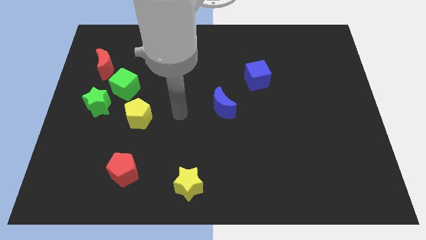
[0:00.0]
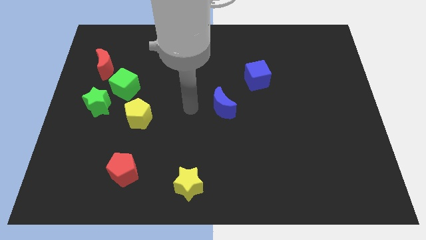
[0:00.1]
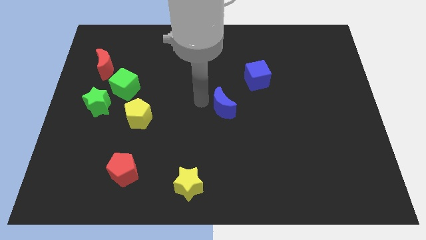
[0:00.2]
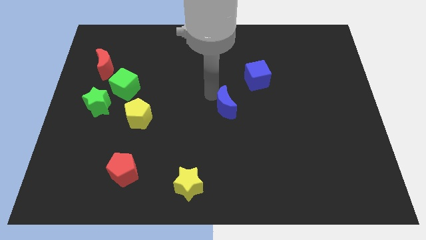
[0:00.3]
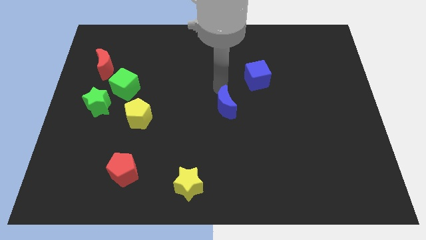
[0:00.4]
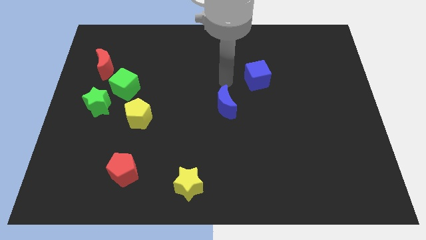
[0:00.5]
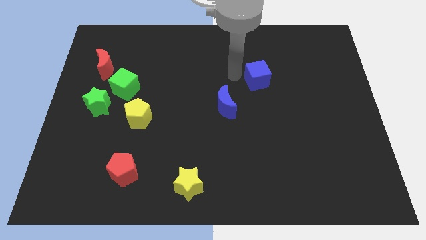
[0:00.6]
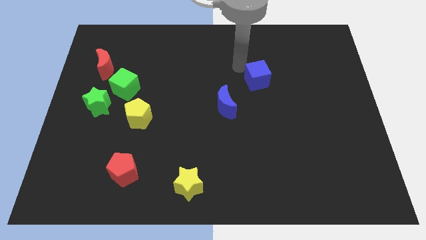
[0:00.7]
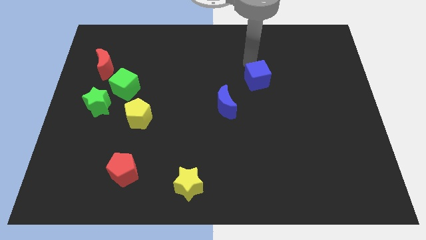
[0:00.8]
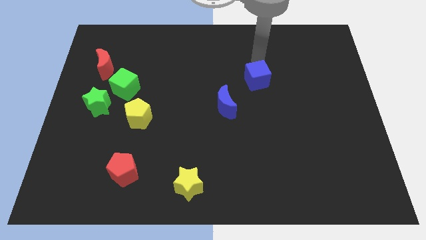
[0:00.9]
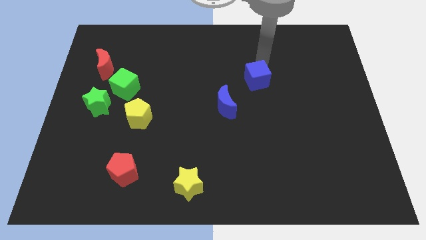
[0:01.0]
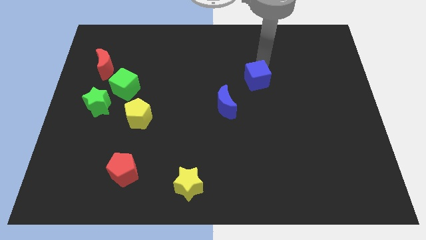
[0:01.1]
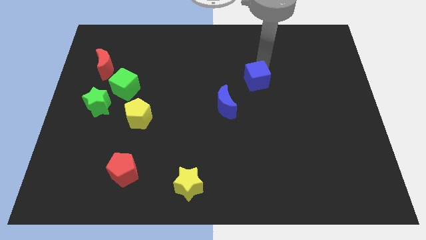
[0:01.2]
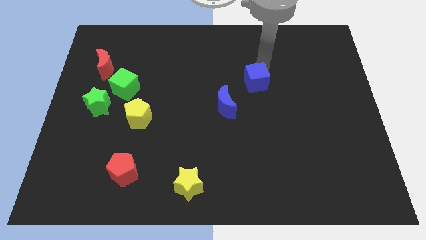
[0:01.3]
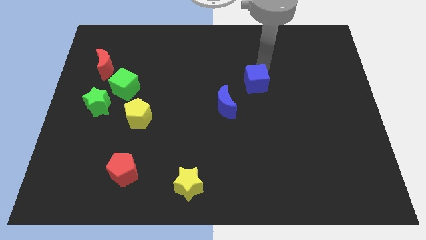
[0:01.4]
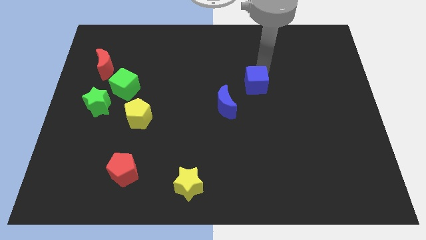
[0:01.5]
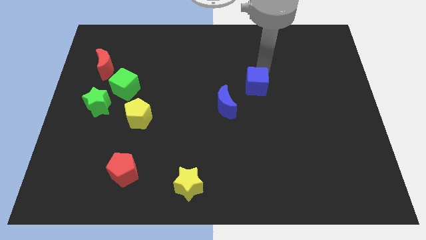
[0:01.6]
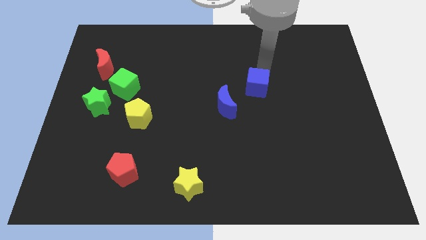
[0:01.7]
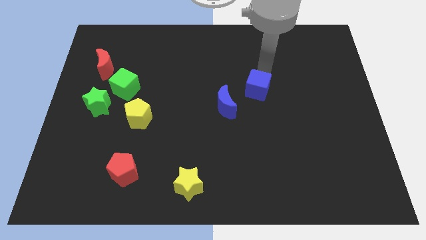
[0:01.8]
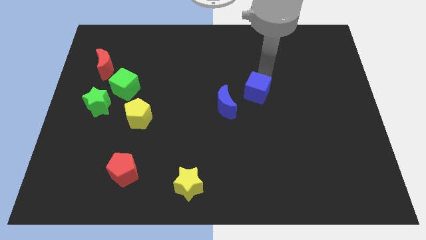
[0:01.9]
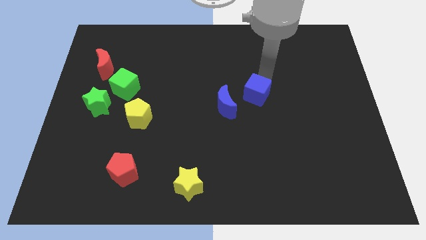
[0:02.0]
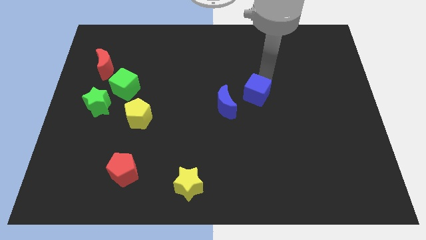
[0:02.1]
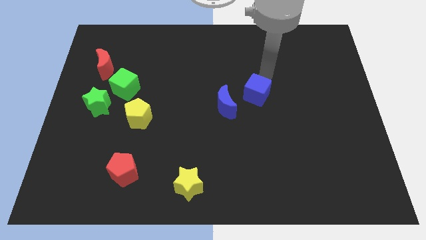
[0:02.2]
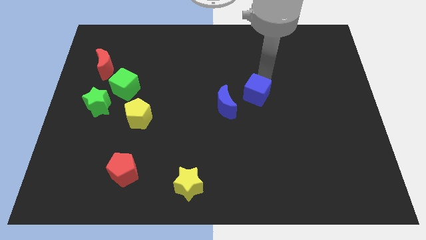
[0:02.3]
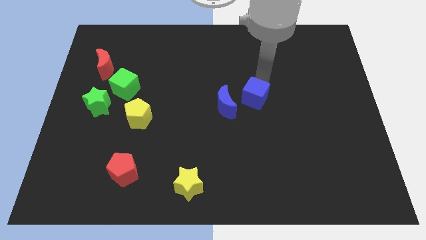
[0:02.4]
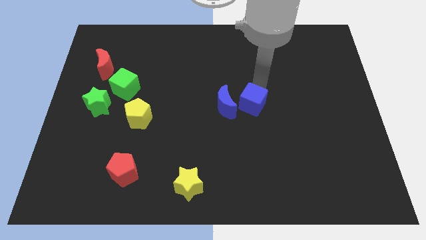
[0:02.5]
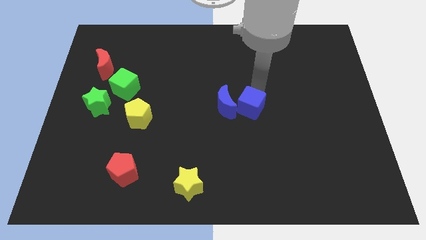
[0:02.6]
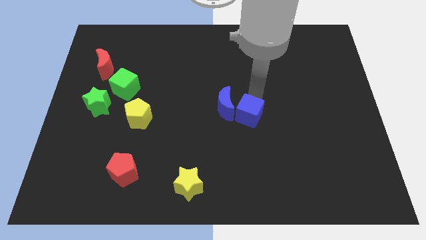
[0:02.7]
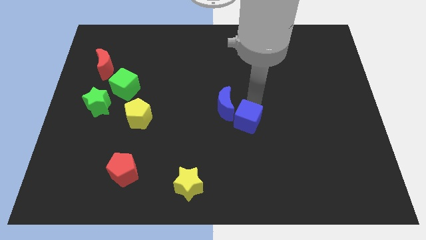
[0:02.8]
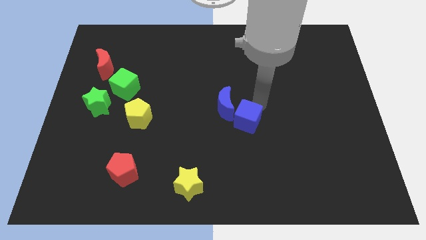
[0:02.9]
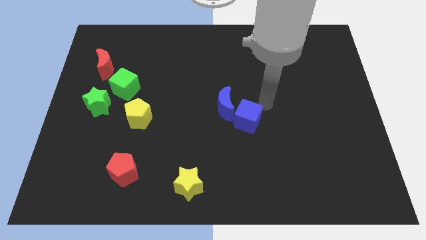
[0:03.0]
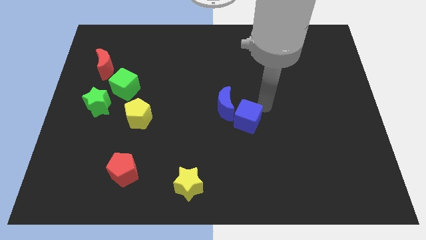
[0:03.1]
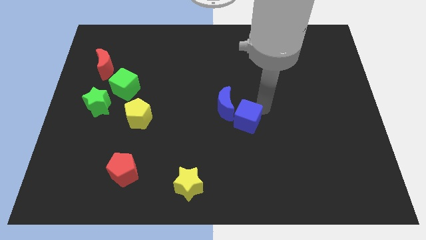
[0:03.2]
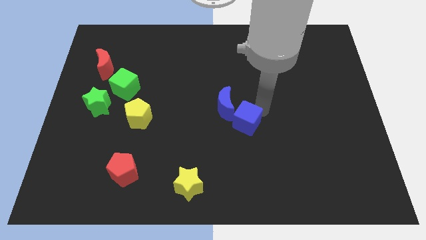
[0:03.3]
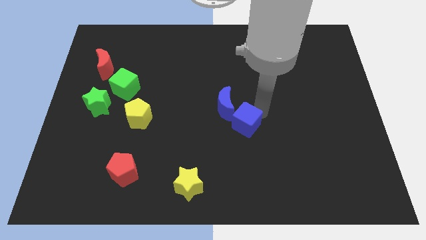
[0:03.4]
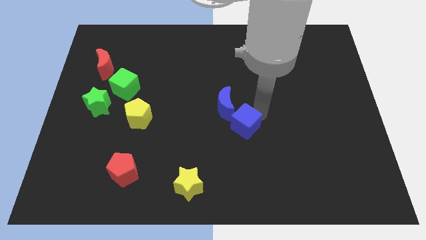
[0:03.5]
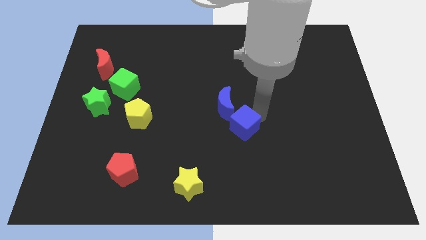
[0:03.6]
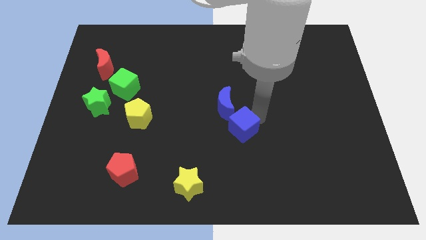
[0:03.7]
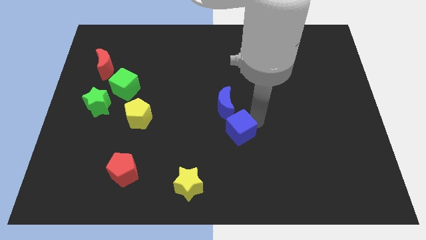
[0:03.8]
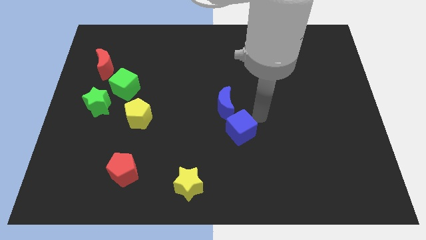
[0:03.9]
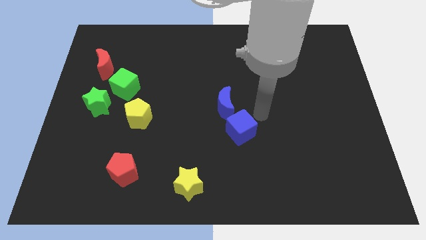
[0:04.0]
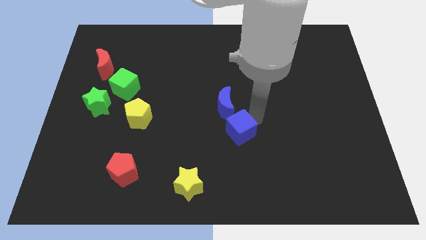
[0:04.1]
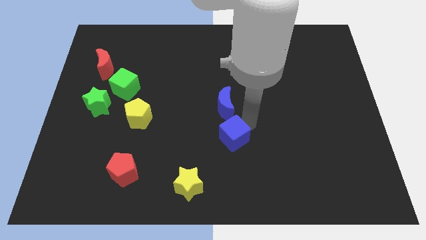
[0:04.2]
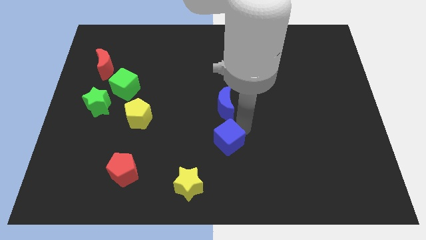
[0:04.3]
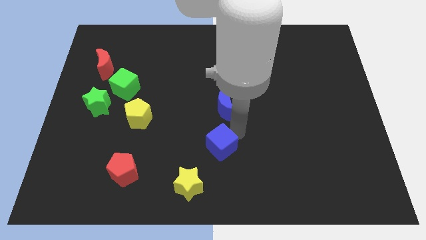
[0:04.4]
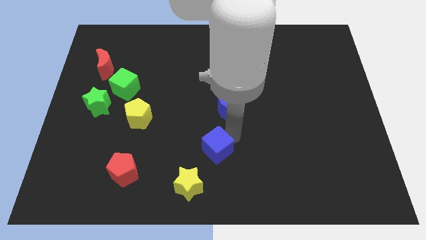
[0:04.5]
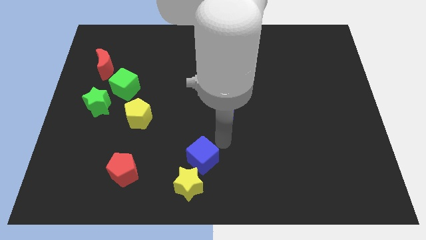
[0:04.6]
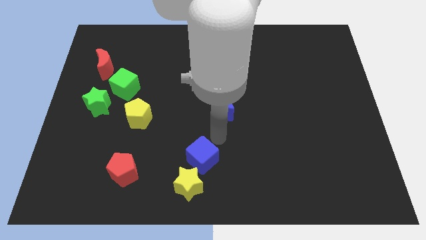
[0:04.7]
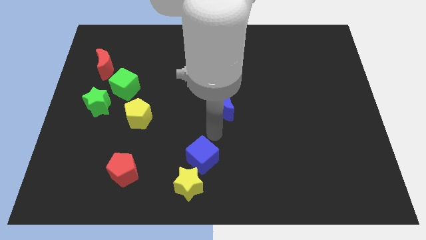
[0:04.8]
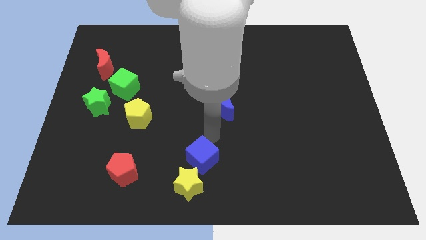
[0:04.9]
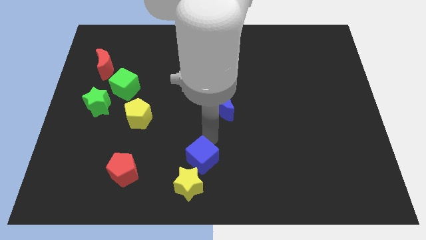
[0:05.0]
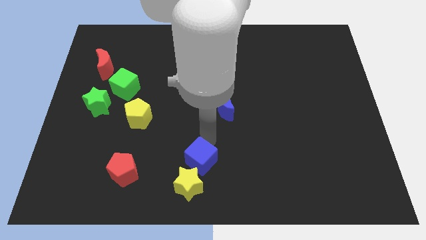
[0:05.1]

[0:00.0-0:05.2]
slide the blue cube next to the yellow star

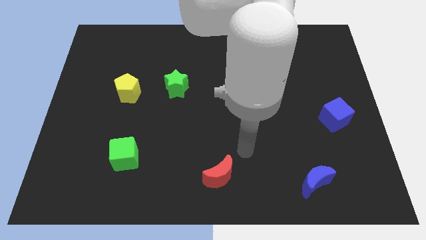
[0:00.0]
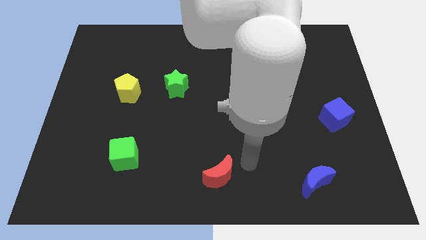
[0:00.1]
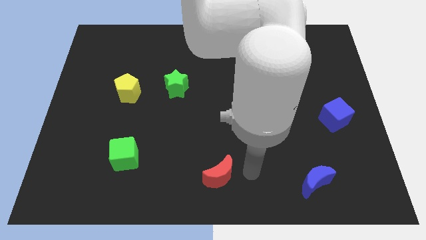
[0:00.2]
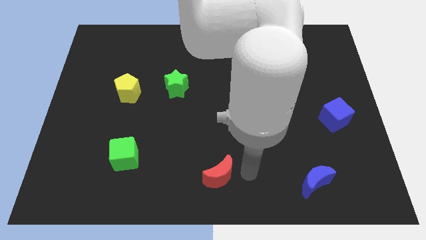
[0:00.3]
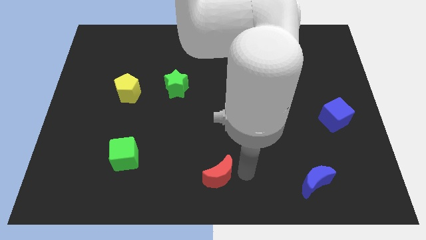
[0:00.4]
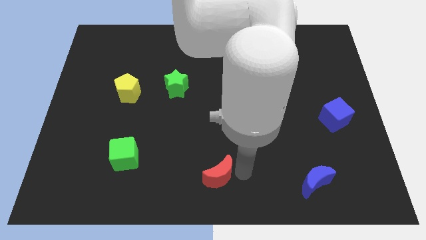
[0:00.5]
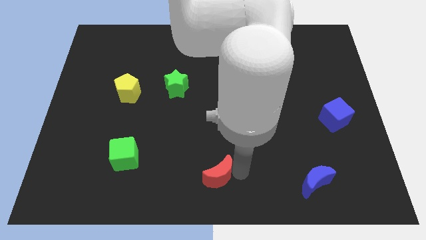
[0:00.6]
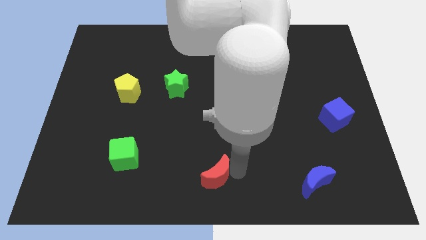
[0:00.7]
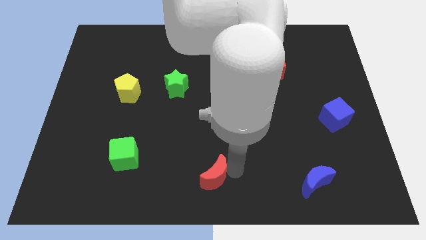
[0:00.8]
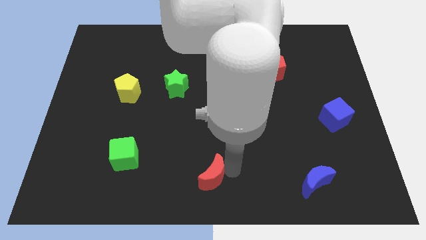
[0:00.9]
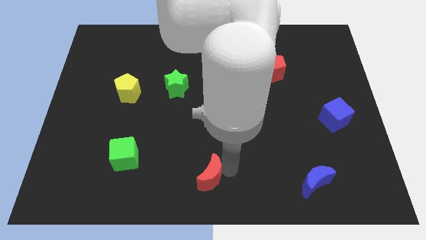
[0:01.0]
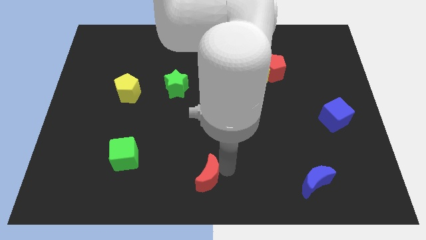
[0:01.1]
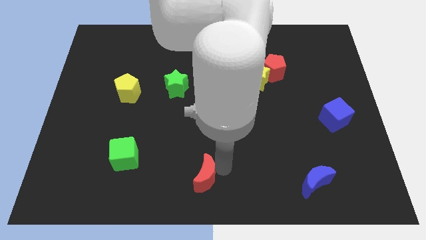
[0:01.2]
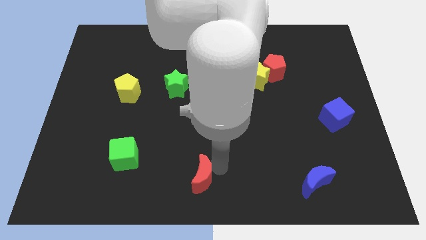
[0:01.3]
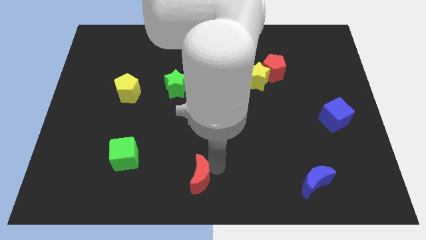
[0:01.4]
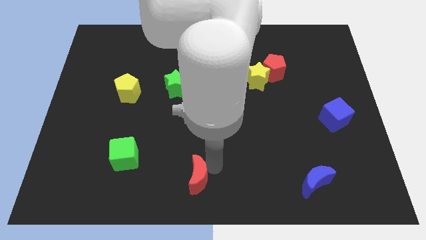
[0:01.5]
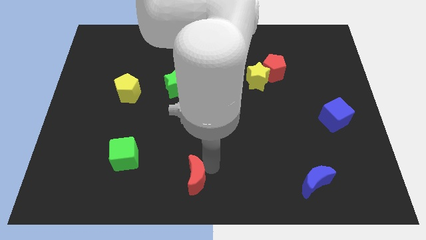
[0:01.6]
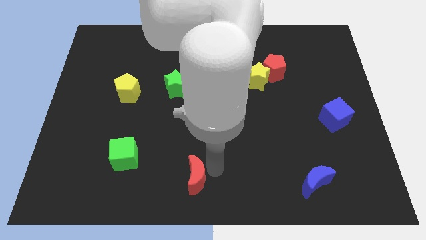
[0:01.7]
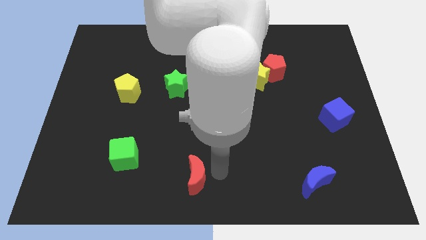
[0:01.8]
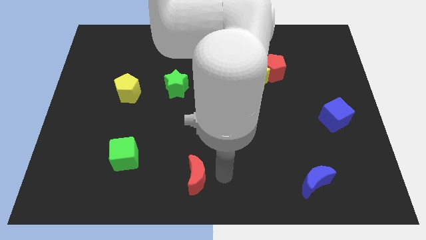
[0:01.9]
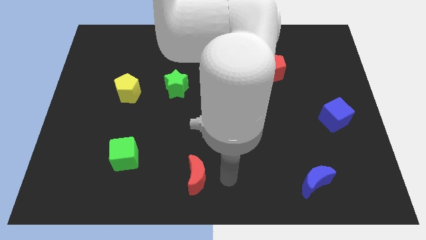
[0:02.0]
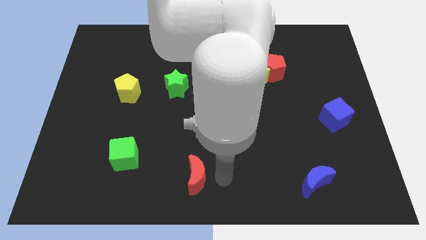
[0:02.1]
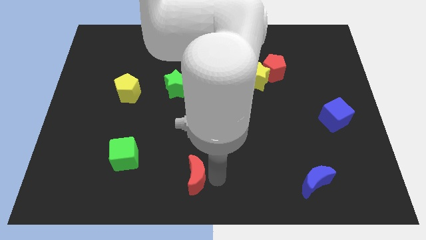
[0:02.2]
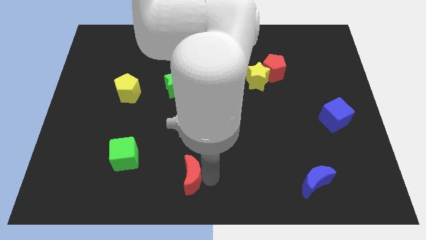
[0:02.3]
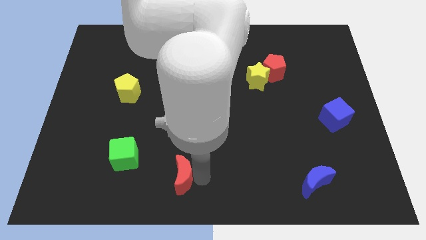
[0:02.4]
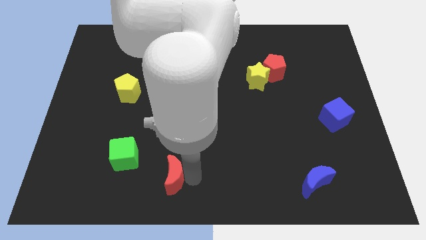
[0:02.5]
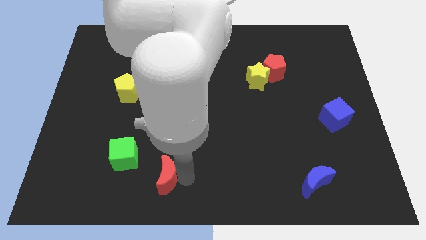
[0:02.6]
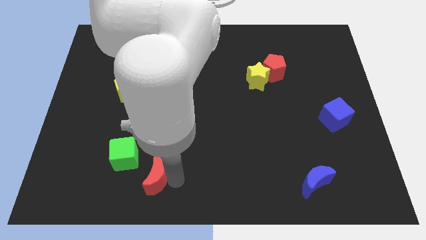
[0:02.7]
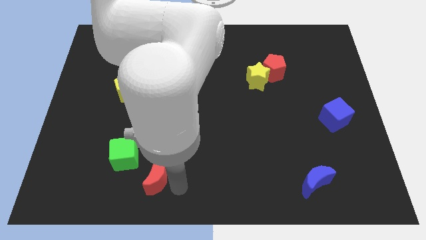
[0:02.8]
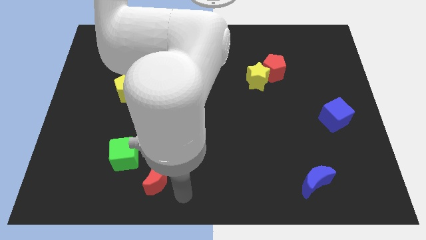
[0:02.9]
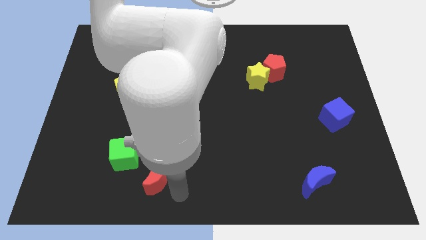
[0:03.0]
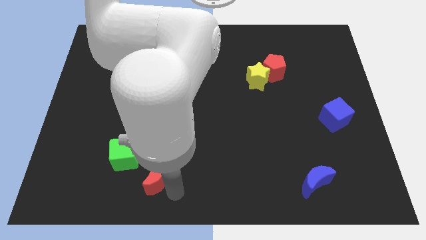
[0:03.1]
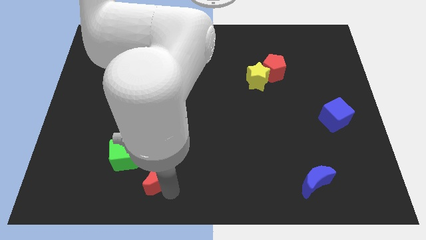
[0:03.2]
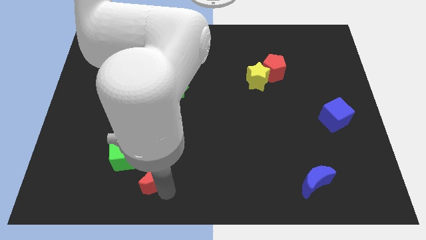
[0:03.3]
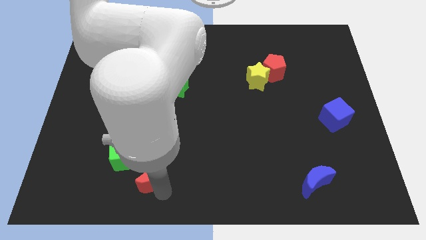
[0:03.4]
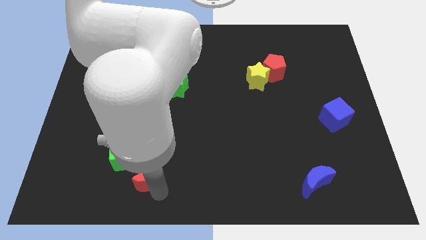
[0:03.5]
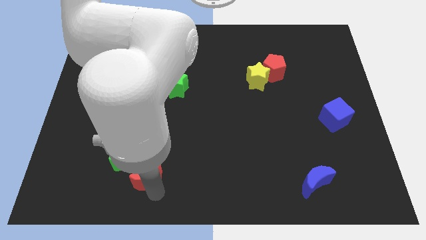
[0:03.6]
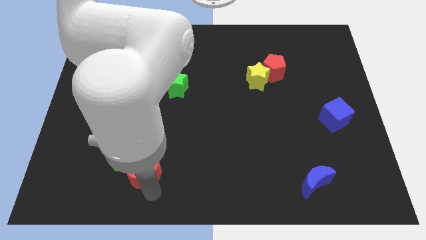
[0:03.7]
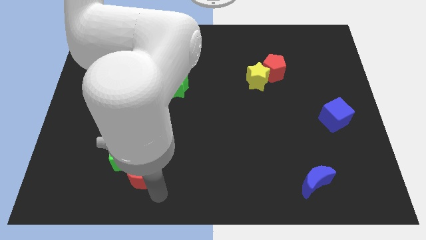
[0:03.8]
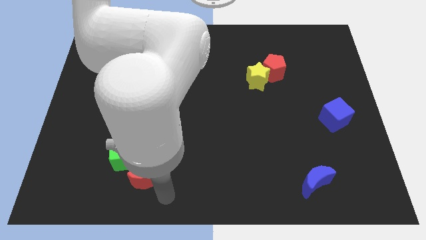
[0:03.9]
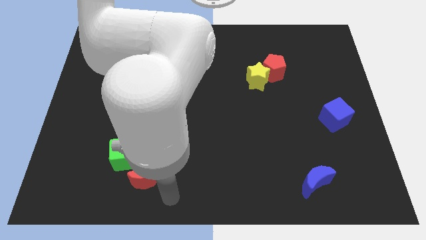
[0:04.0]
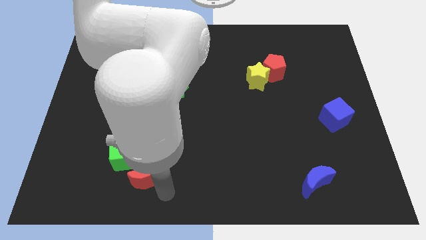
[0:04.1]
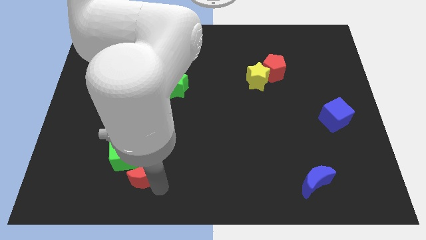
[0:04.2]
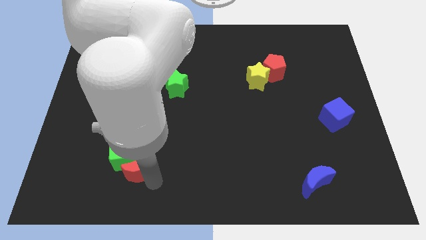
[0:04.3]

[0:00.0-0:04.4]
slide the red moon next to the green cube
